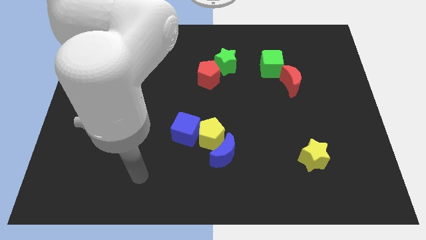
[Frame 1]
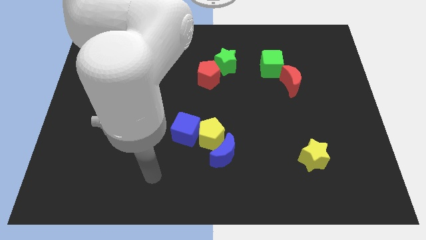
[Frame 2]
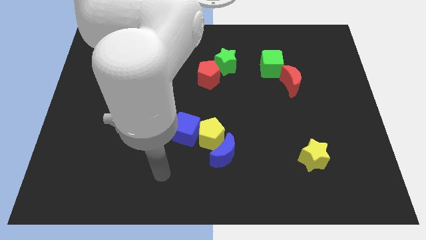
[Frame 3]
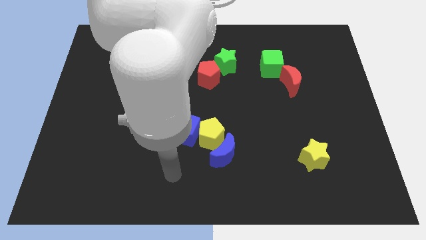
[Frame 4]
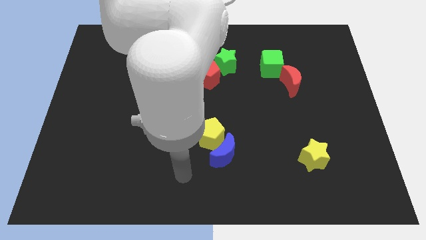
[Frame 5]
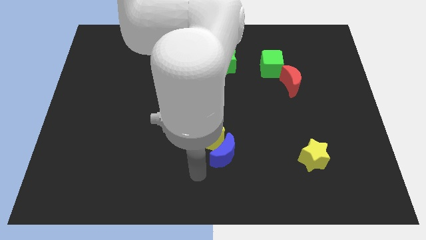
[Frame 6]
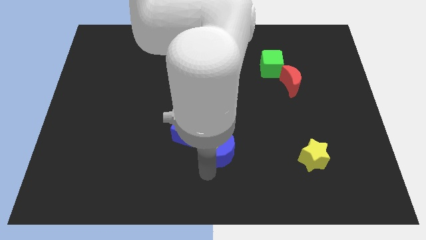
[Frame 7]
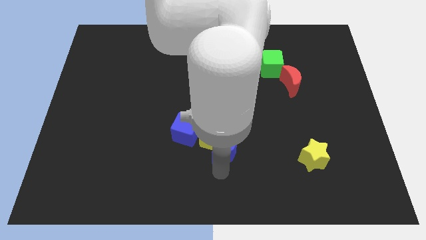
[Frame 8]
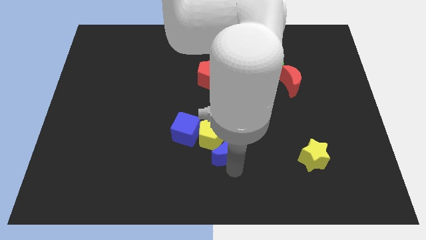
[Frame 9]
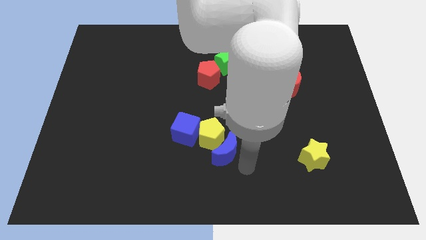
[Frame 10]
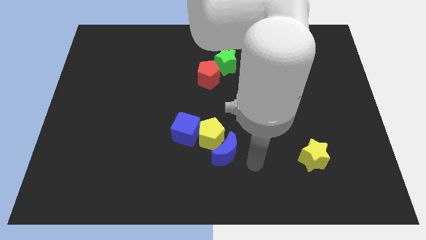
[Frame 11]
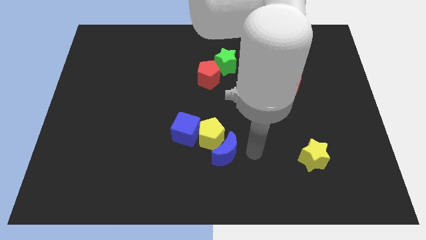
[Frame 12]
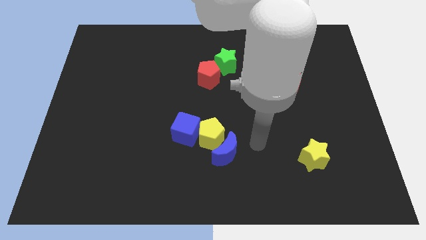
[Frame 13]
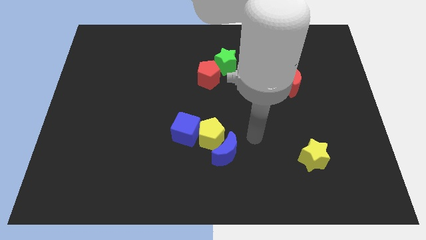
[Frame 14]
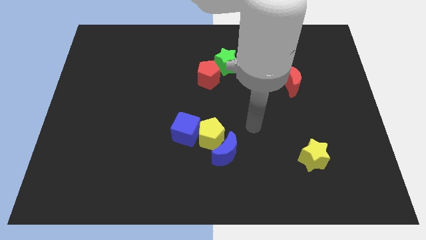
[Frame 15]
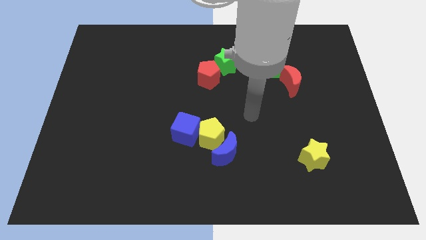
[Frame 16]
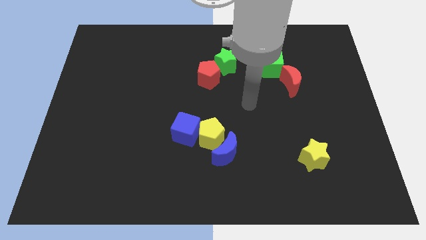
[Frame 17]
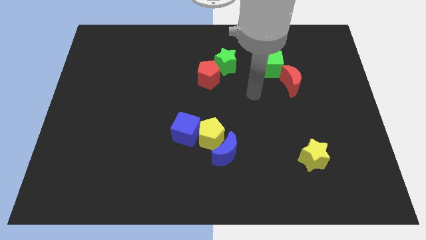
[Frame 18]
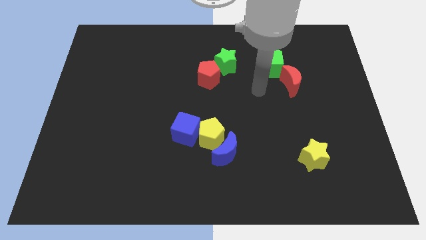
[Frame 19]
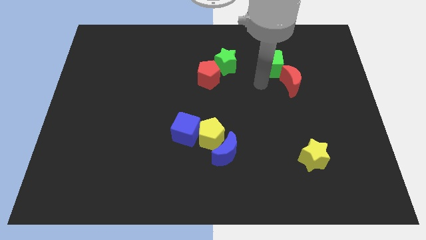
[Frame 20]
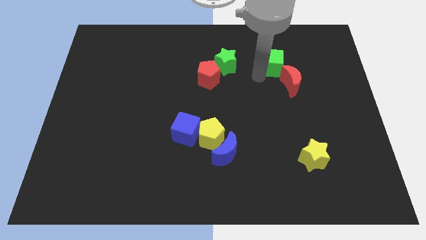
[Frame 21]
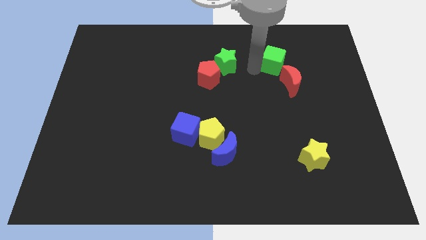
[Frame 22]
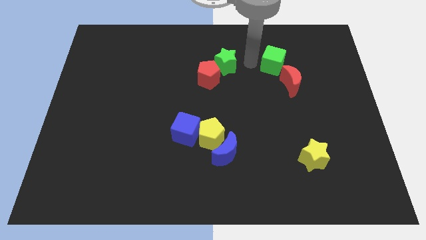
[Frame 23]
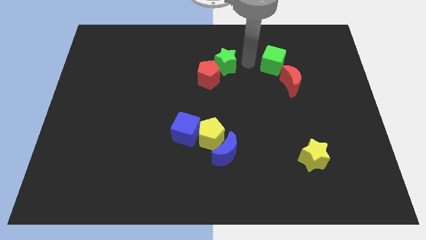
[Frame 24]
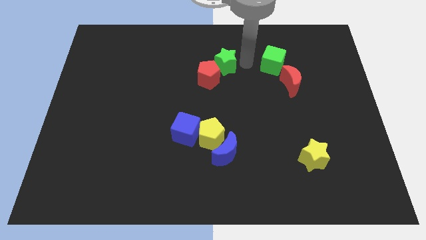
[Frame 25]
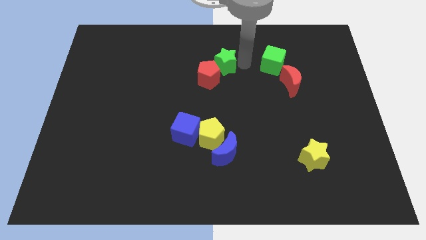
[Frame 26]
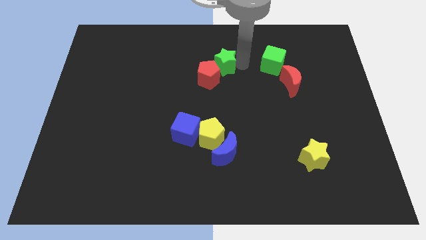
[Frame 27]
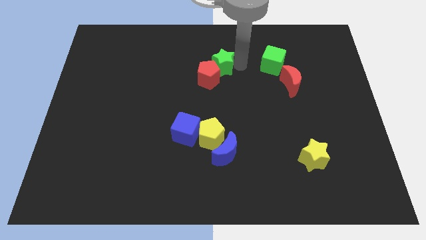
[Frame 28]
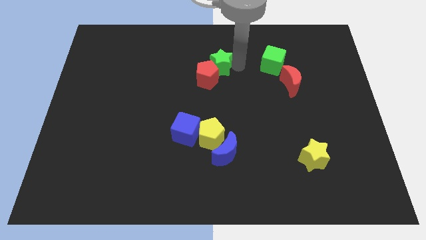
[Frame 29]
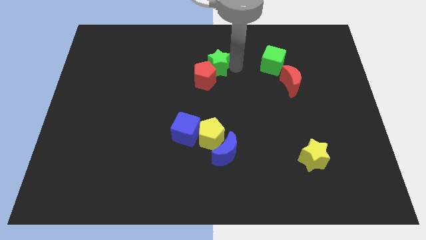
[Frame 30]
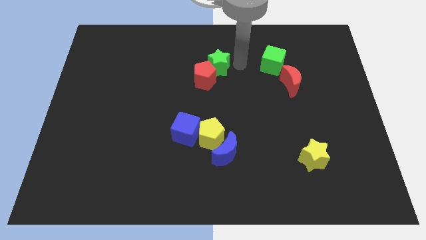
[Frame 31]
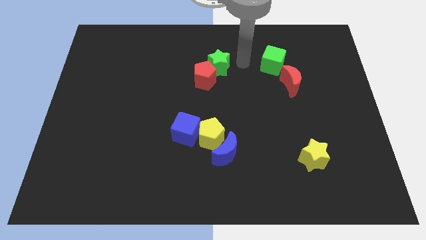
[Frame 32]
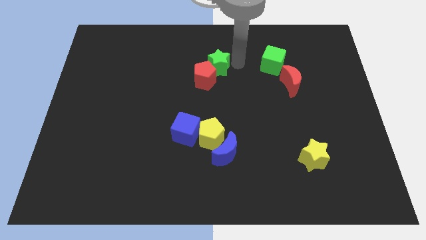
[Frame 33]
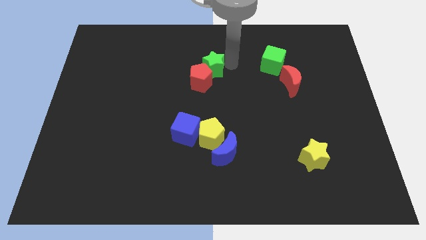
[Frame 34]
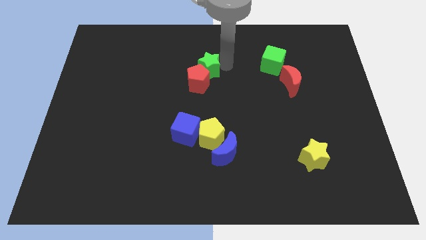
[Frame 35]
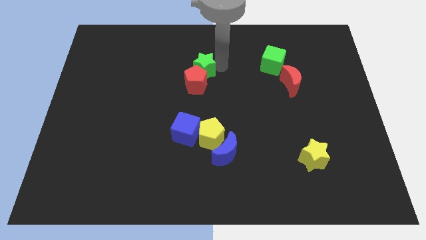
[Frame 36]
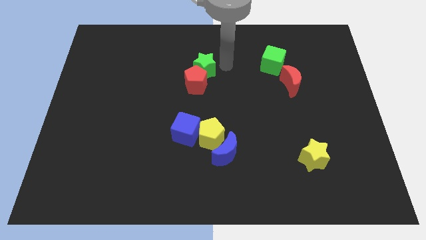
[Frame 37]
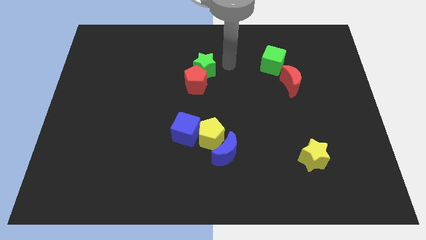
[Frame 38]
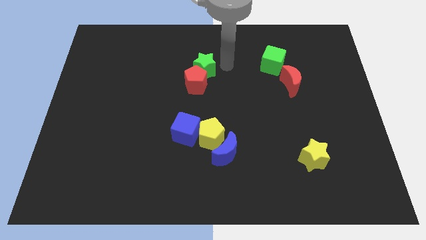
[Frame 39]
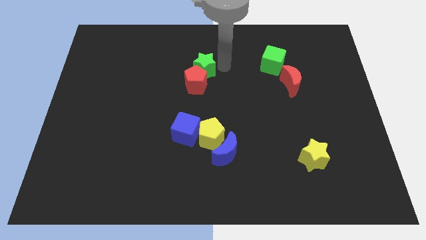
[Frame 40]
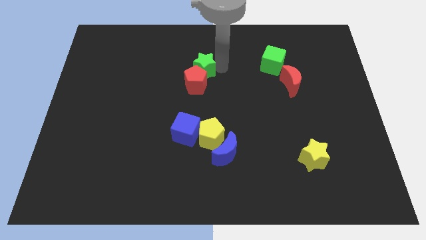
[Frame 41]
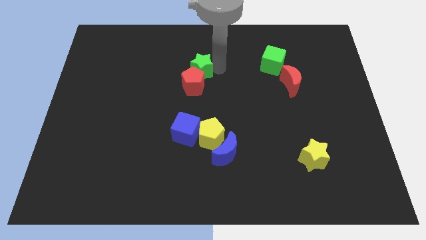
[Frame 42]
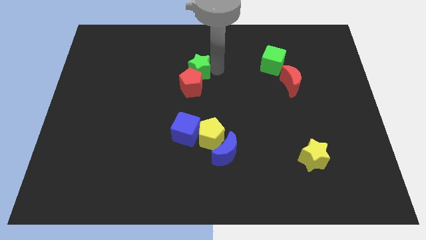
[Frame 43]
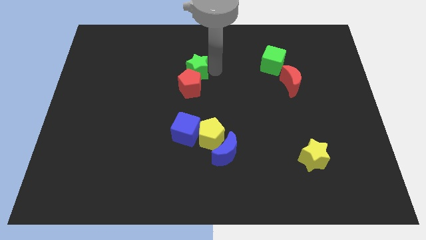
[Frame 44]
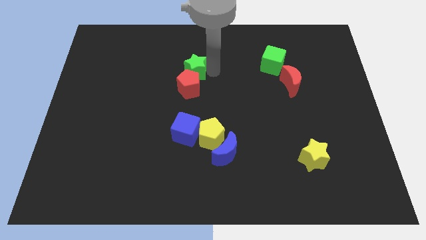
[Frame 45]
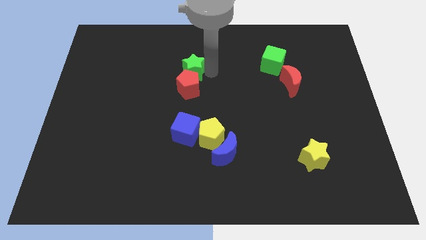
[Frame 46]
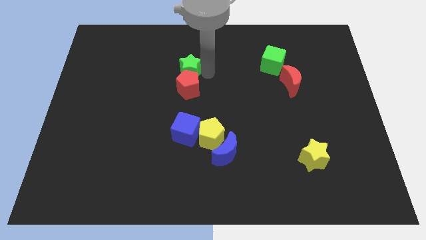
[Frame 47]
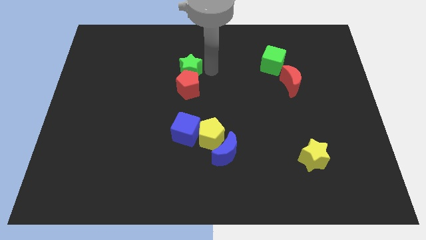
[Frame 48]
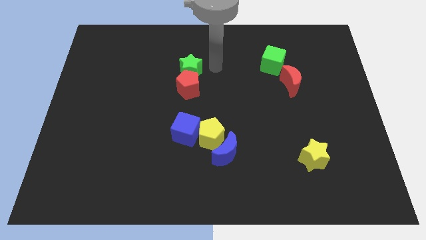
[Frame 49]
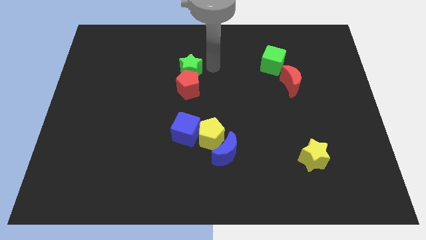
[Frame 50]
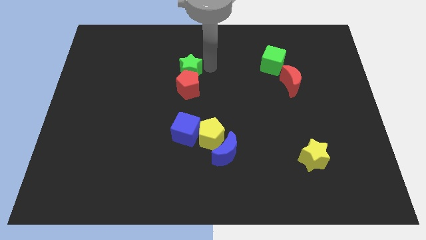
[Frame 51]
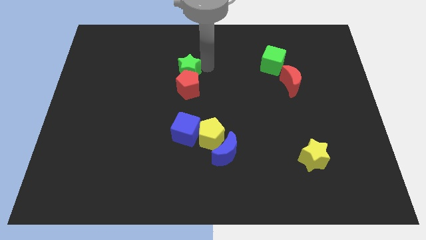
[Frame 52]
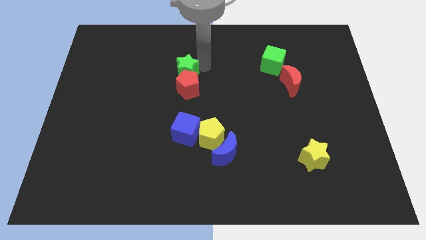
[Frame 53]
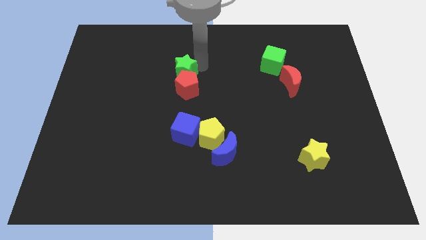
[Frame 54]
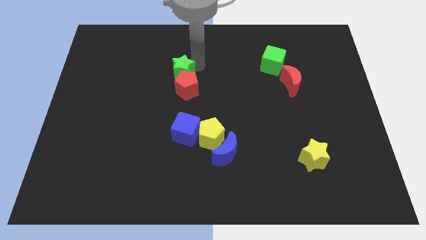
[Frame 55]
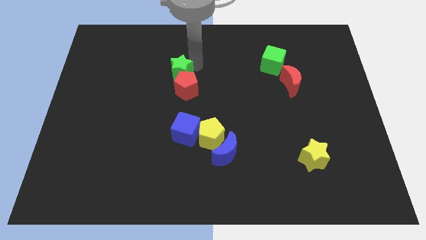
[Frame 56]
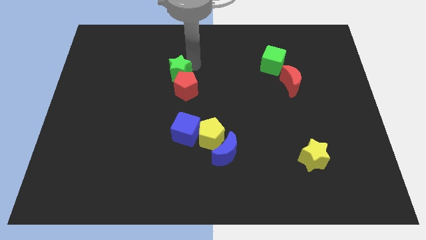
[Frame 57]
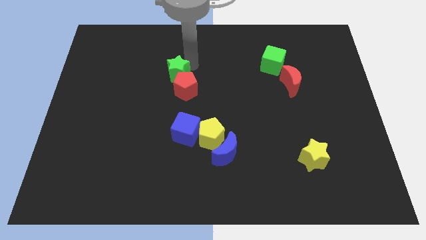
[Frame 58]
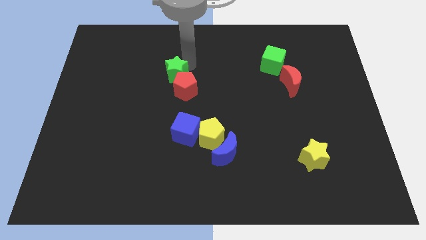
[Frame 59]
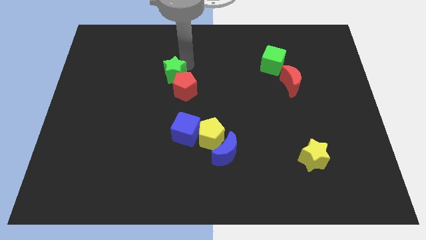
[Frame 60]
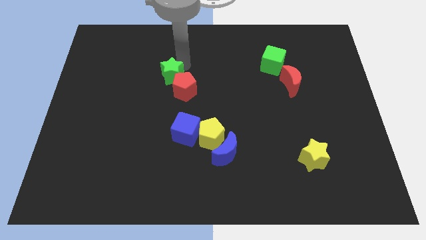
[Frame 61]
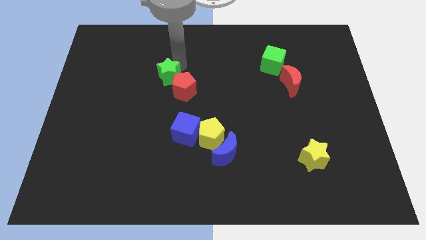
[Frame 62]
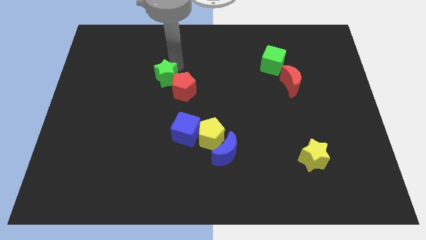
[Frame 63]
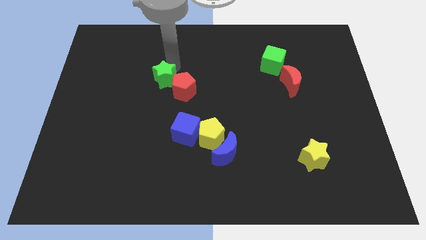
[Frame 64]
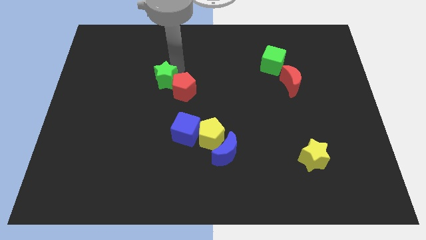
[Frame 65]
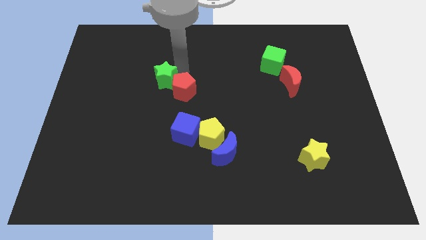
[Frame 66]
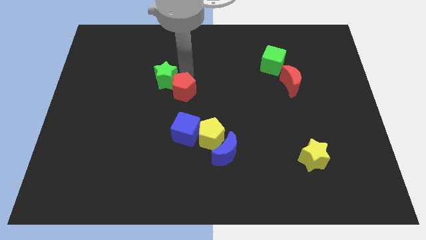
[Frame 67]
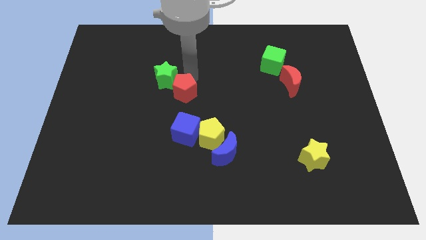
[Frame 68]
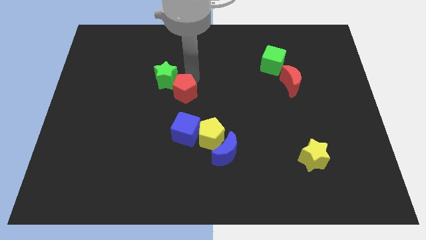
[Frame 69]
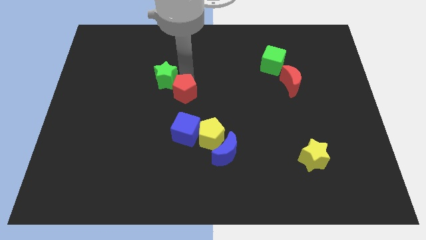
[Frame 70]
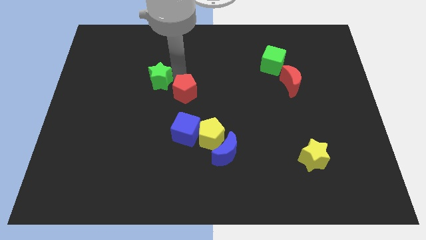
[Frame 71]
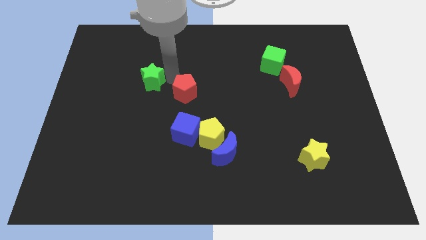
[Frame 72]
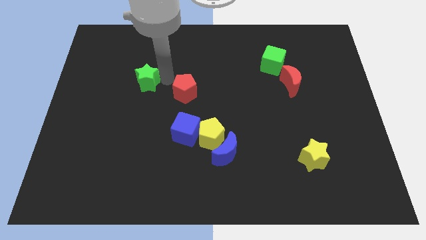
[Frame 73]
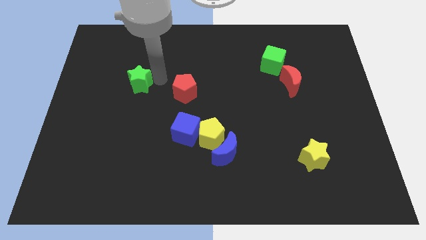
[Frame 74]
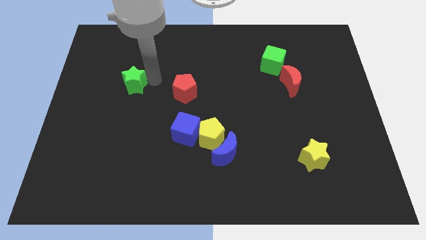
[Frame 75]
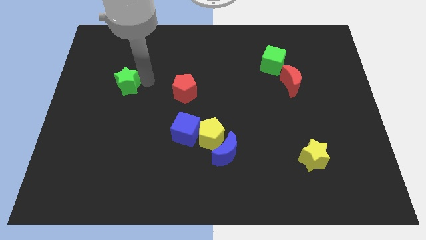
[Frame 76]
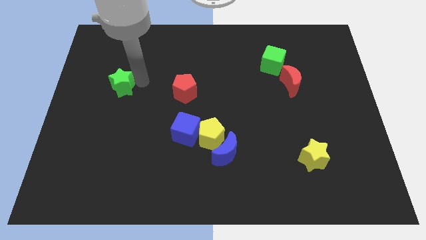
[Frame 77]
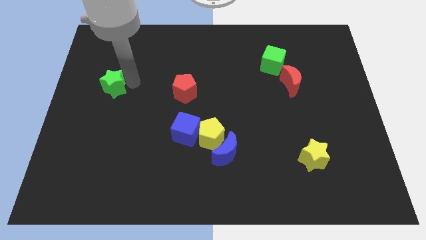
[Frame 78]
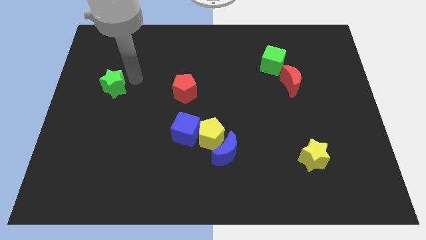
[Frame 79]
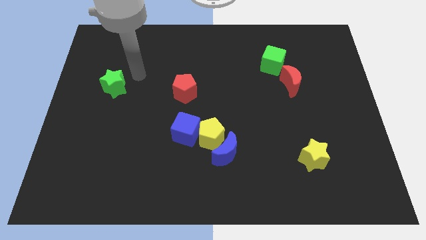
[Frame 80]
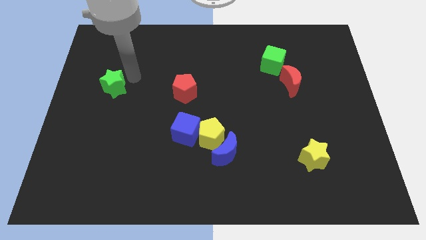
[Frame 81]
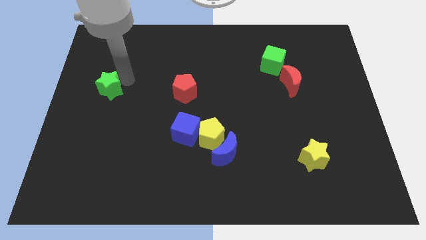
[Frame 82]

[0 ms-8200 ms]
push the green star to the left side of the board
